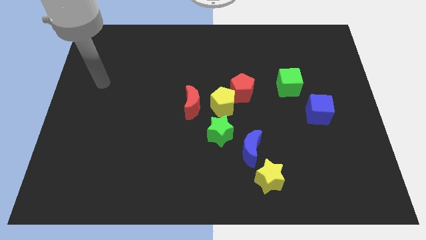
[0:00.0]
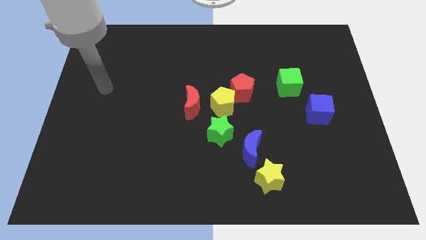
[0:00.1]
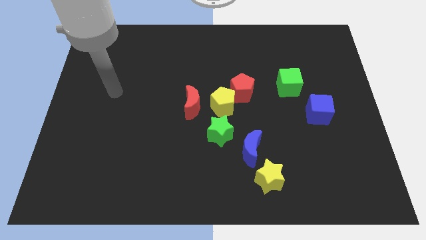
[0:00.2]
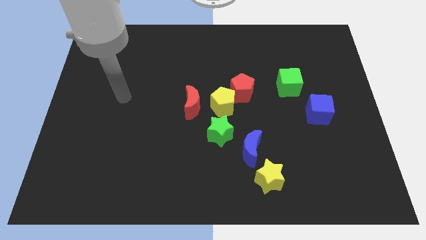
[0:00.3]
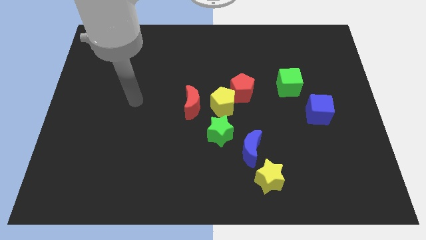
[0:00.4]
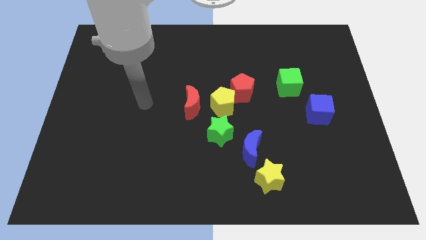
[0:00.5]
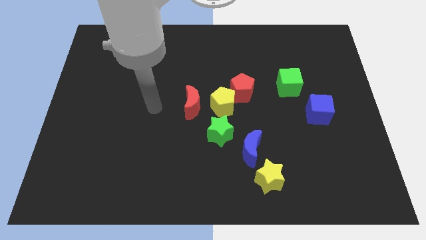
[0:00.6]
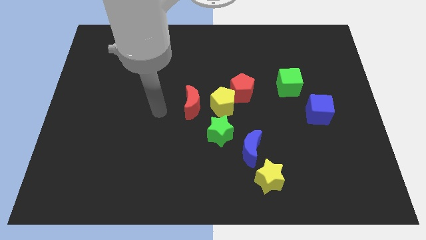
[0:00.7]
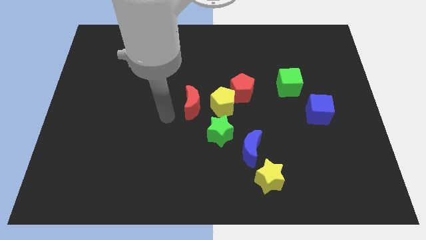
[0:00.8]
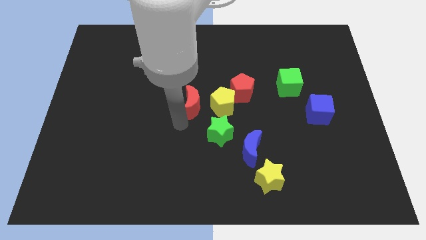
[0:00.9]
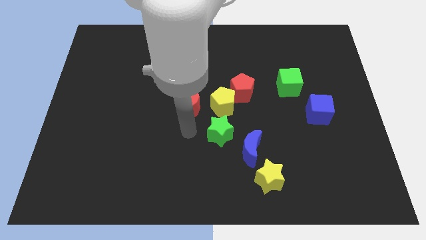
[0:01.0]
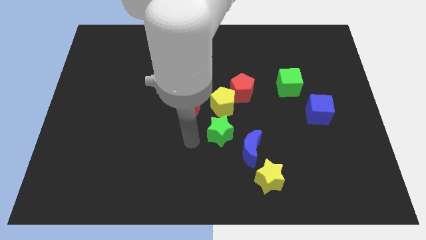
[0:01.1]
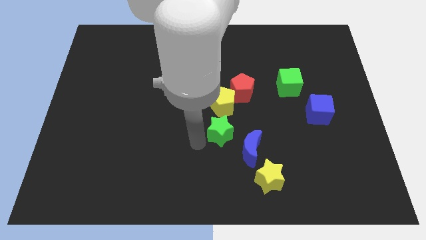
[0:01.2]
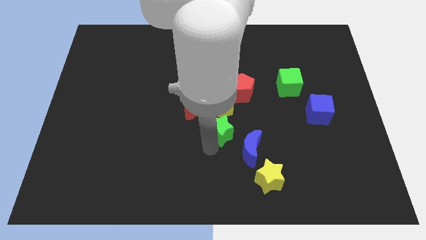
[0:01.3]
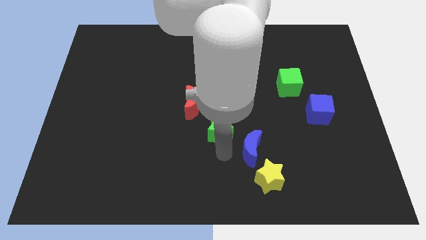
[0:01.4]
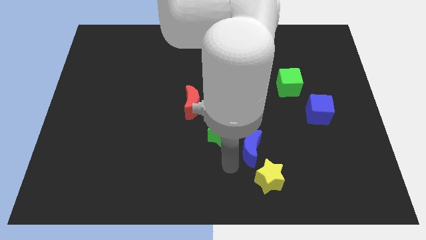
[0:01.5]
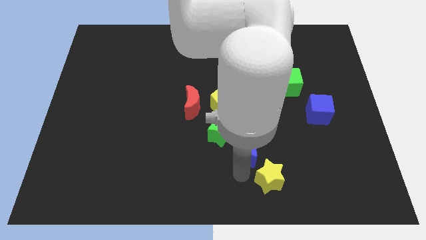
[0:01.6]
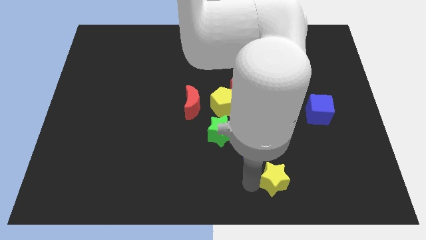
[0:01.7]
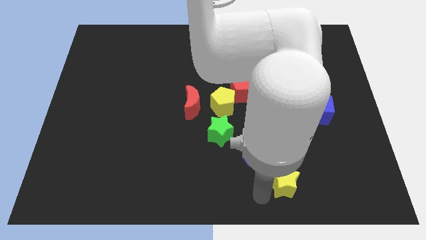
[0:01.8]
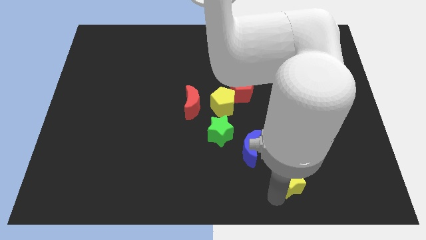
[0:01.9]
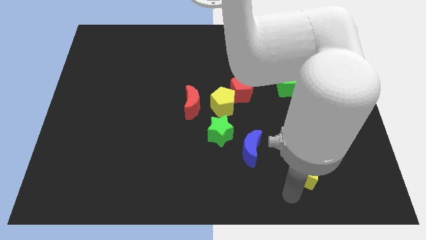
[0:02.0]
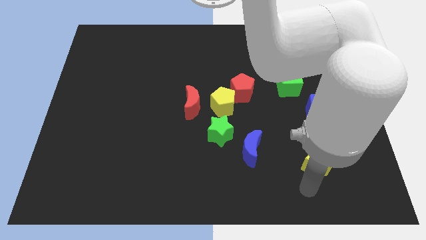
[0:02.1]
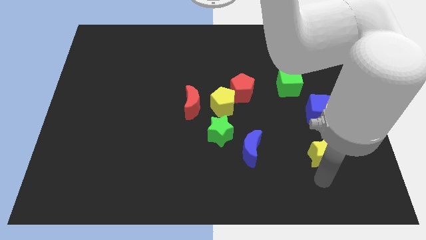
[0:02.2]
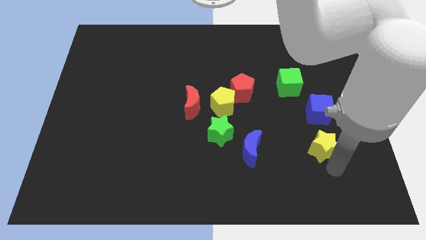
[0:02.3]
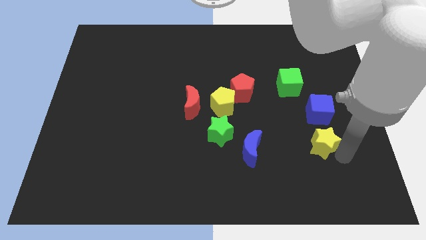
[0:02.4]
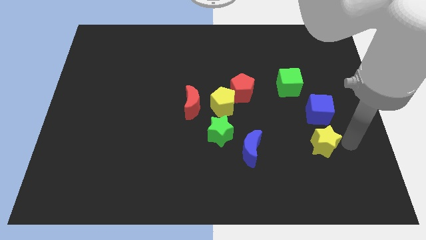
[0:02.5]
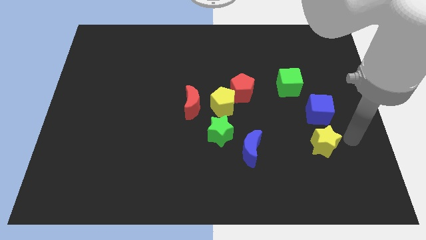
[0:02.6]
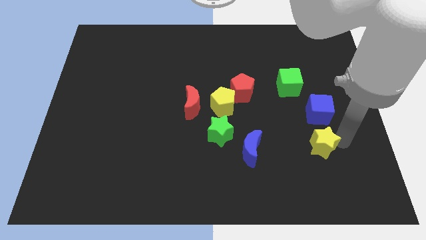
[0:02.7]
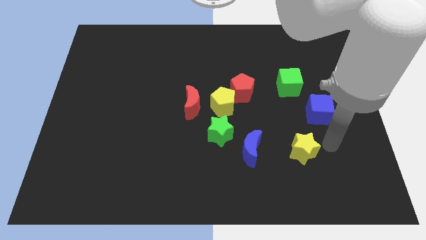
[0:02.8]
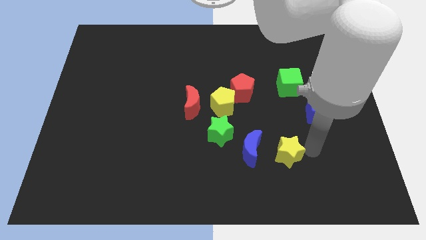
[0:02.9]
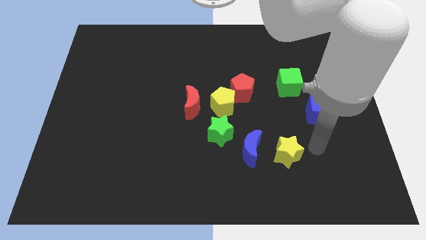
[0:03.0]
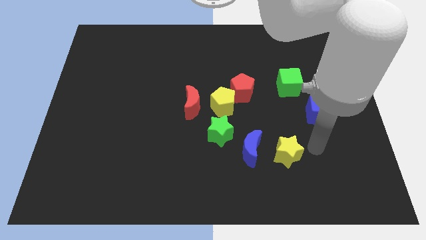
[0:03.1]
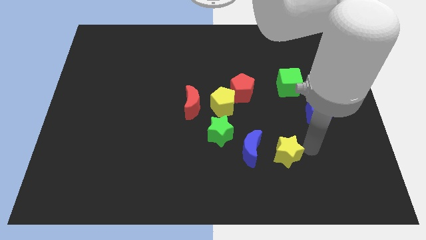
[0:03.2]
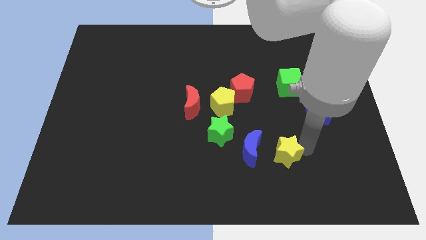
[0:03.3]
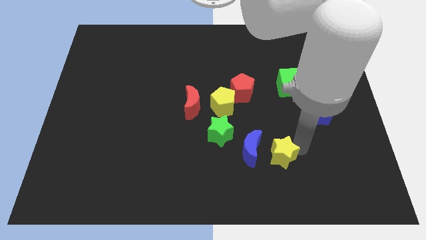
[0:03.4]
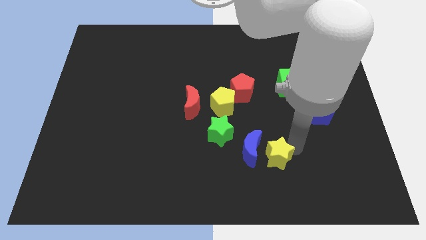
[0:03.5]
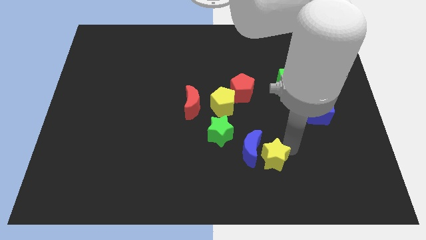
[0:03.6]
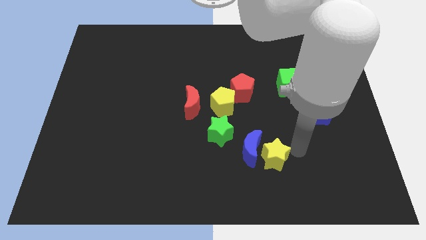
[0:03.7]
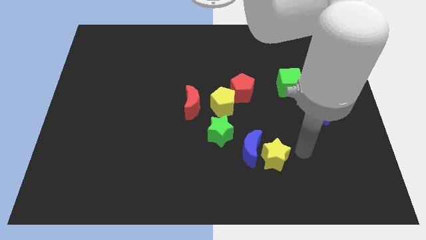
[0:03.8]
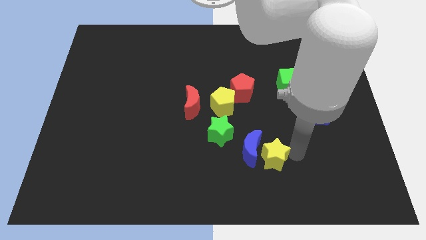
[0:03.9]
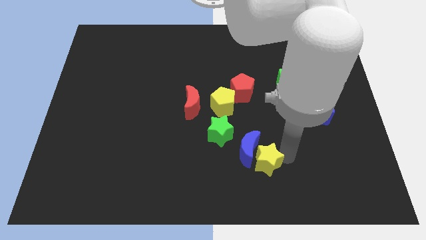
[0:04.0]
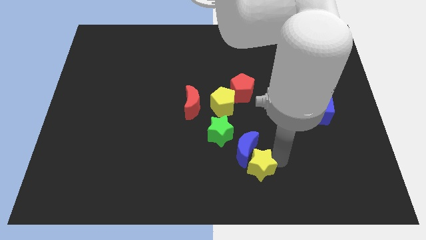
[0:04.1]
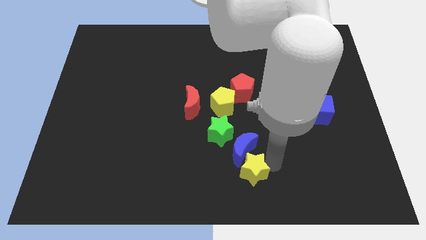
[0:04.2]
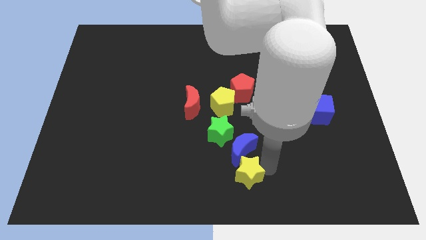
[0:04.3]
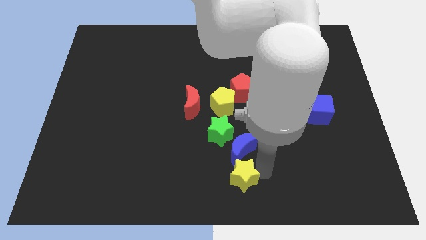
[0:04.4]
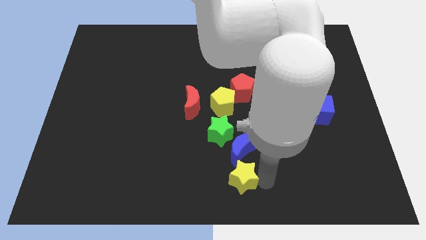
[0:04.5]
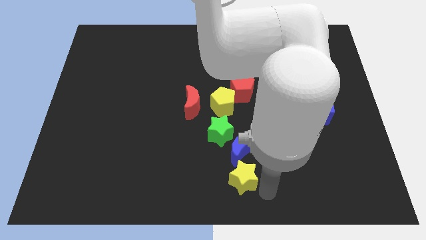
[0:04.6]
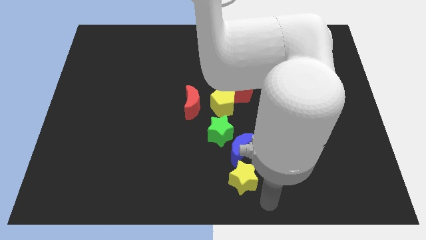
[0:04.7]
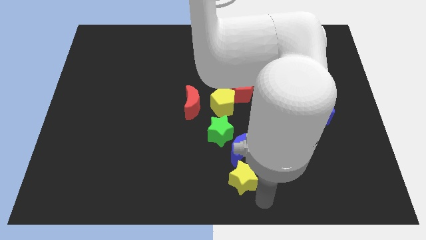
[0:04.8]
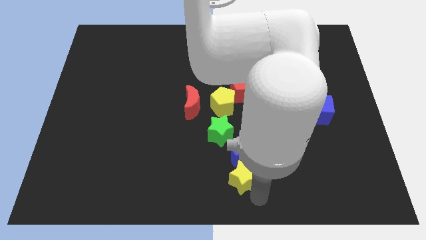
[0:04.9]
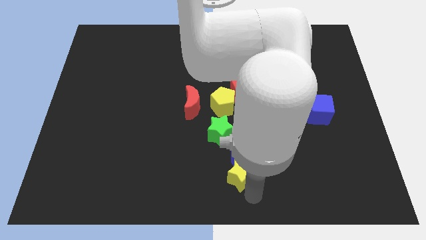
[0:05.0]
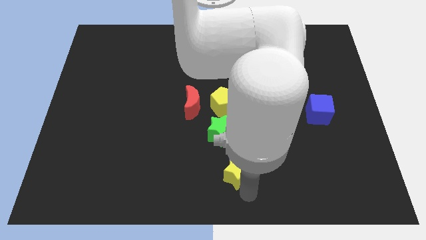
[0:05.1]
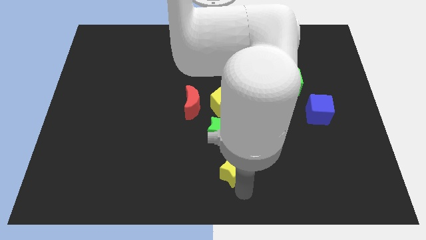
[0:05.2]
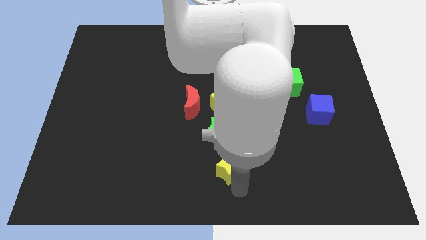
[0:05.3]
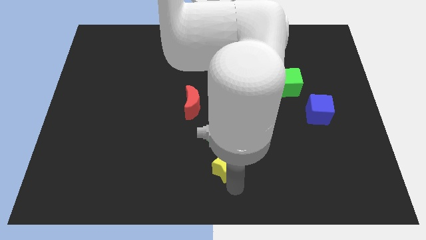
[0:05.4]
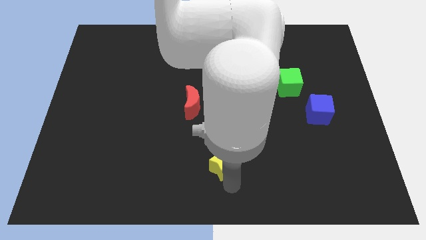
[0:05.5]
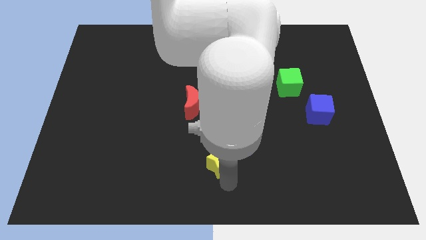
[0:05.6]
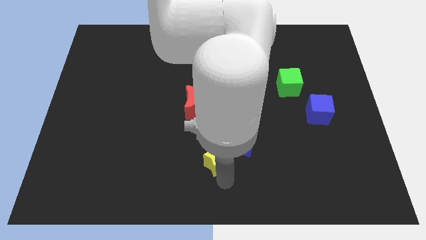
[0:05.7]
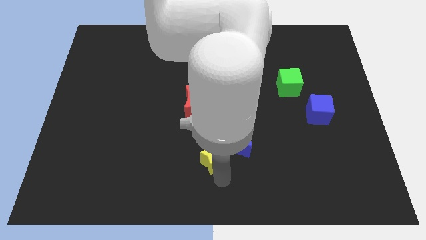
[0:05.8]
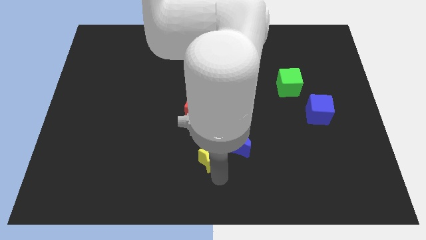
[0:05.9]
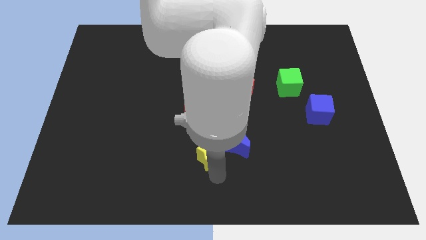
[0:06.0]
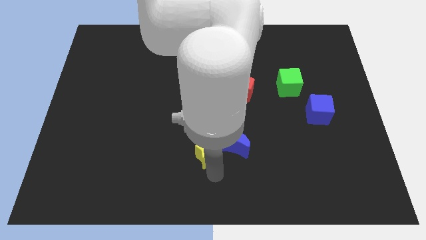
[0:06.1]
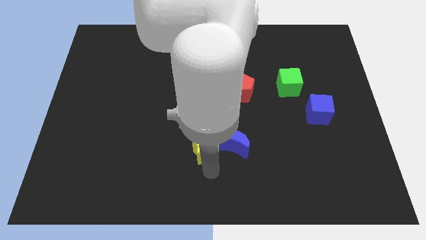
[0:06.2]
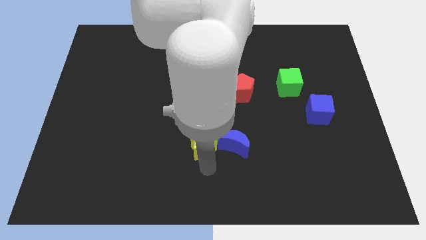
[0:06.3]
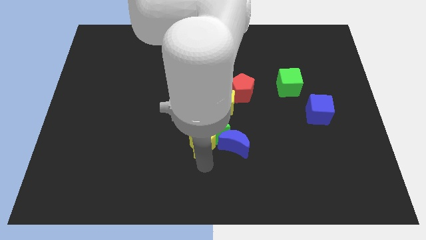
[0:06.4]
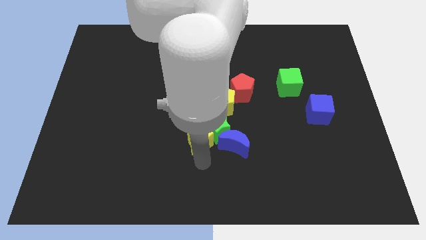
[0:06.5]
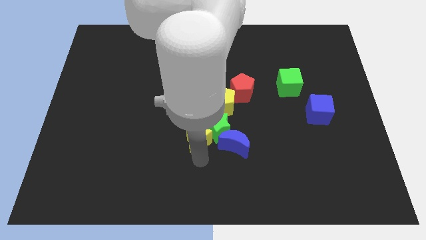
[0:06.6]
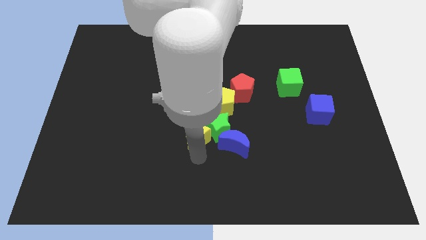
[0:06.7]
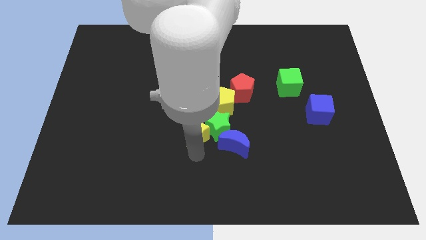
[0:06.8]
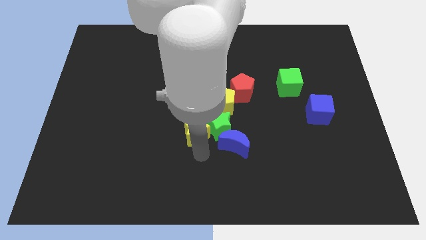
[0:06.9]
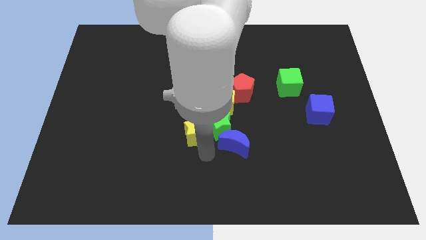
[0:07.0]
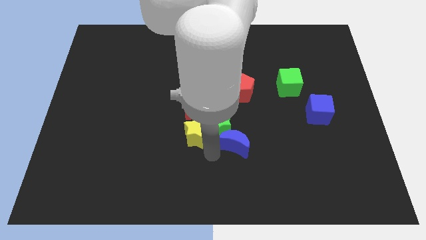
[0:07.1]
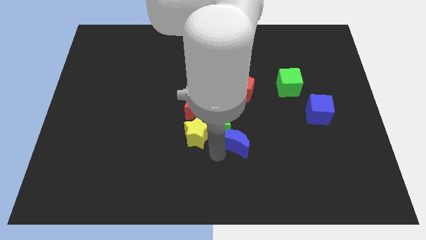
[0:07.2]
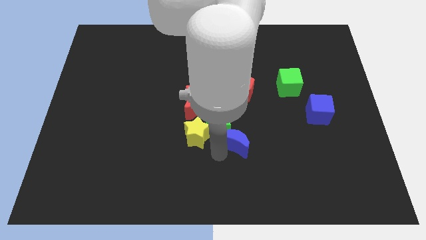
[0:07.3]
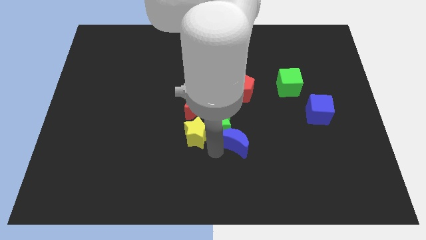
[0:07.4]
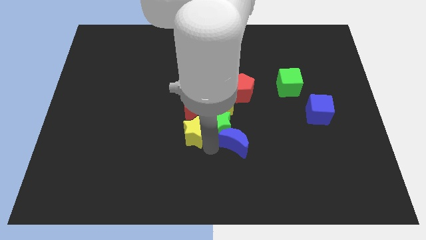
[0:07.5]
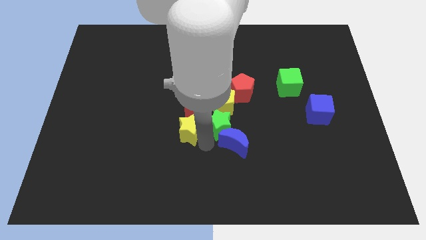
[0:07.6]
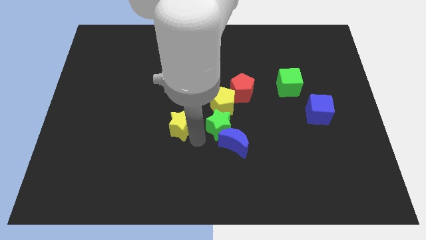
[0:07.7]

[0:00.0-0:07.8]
move the yellow star up and left diagonally
